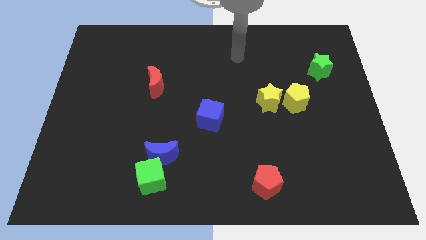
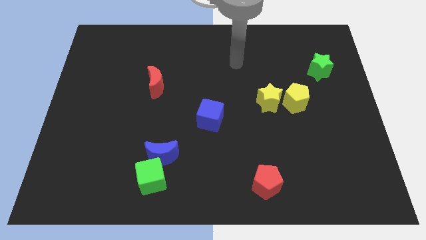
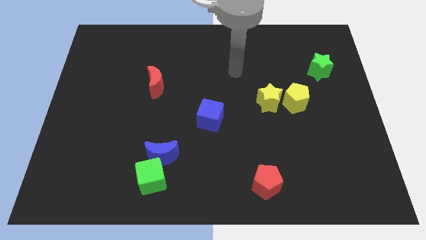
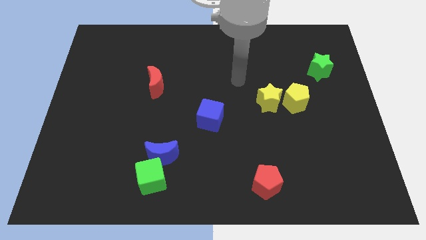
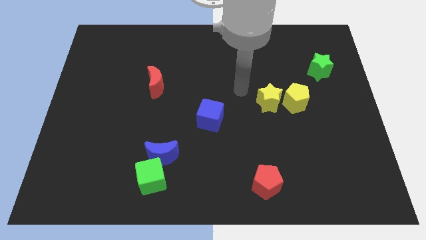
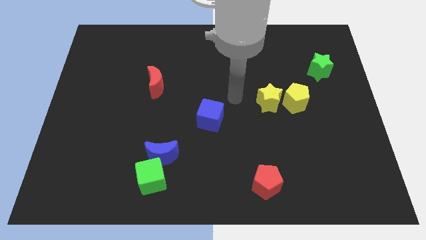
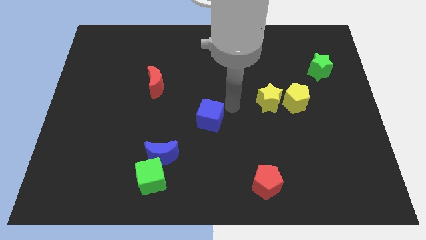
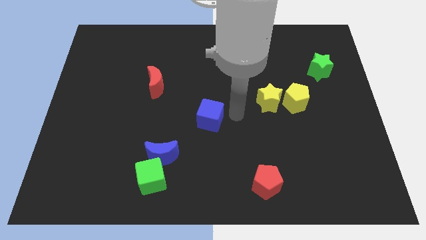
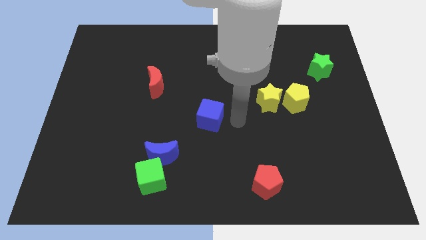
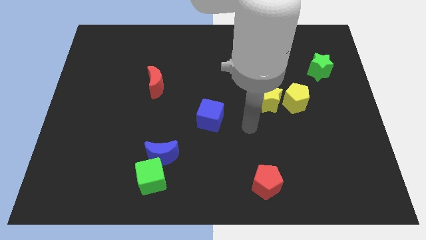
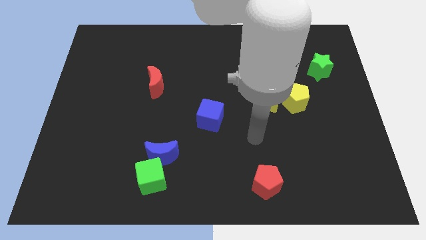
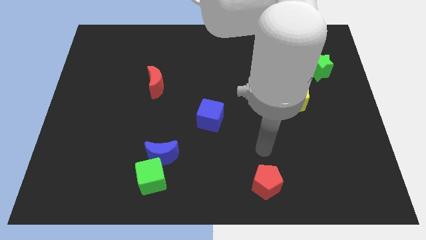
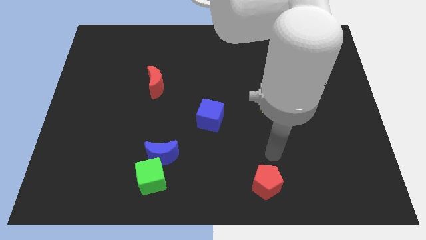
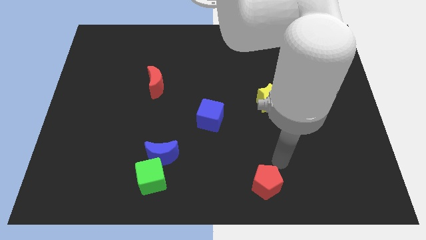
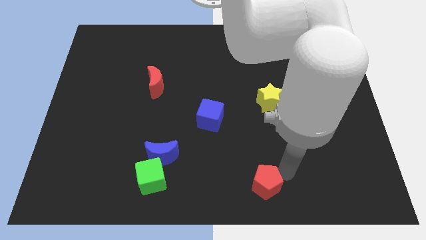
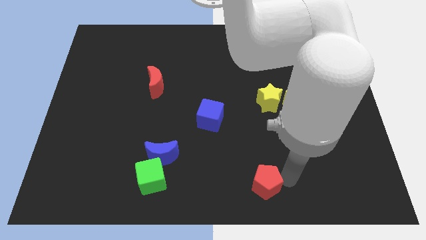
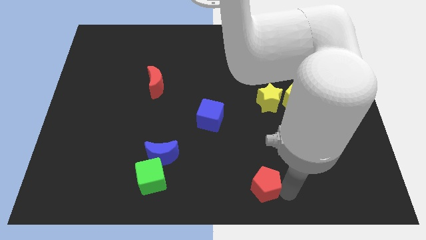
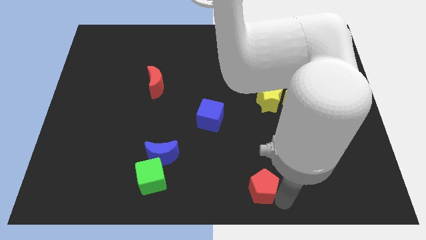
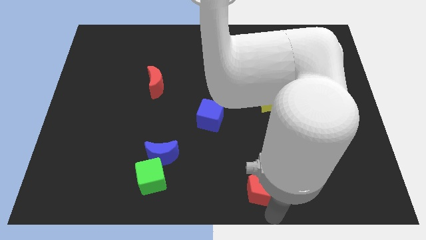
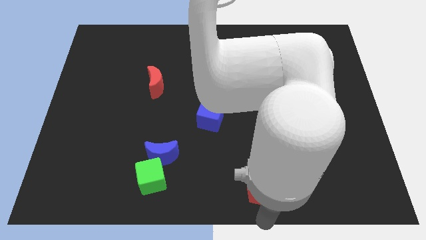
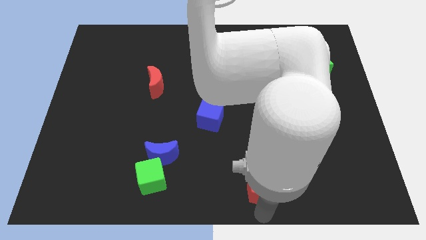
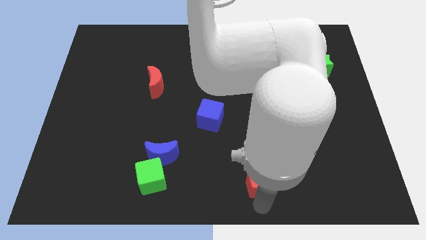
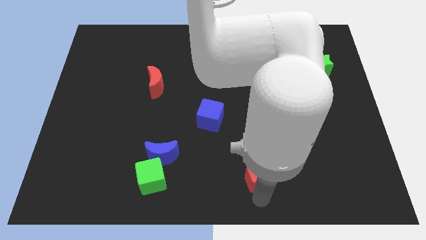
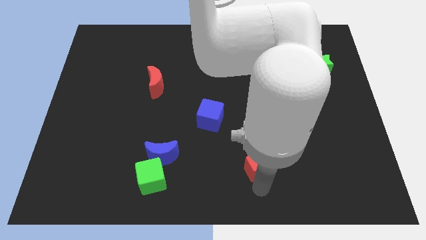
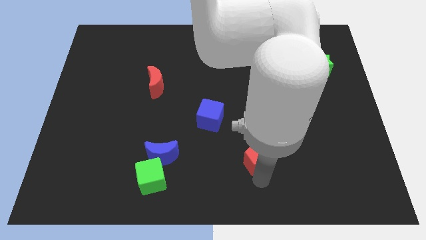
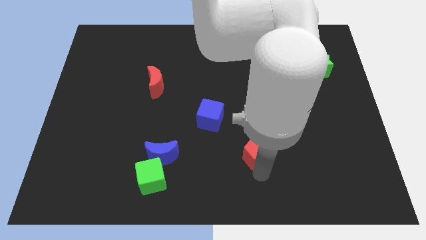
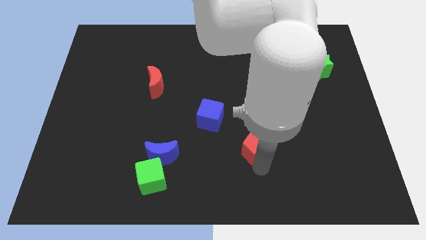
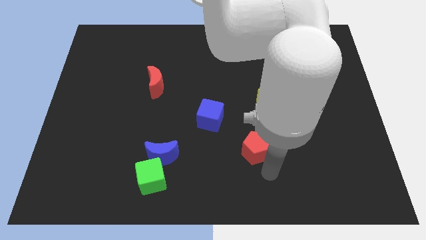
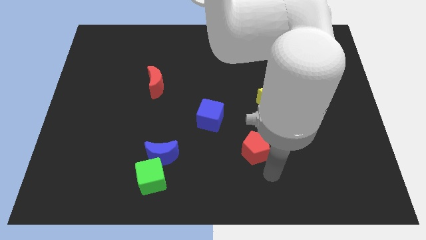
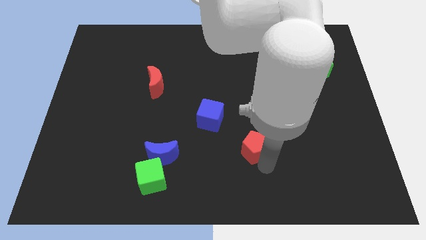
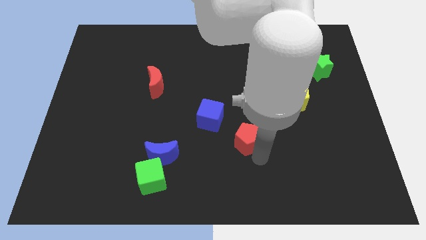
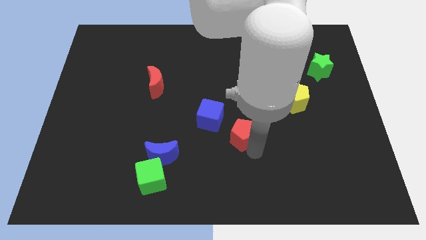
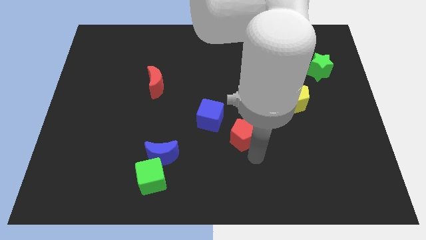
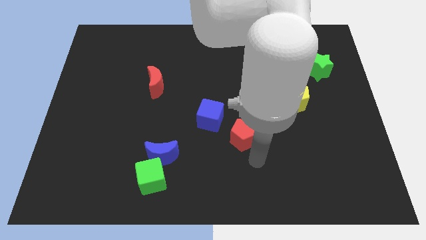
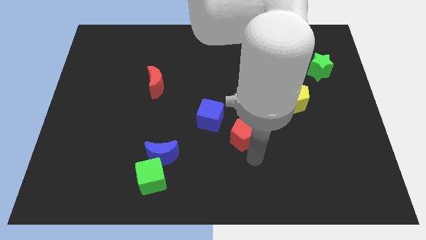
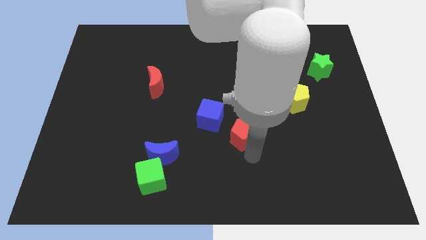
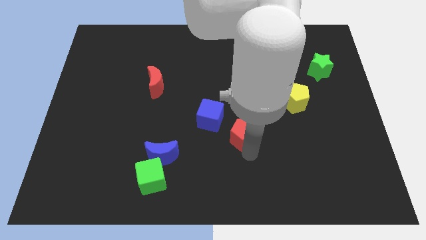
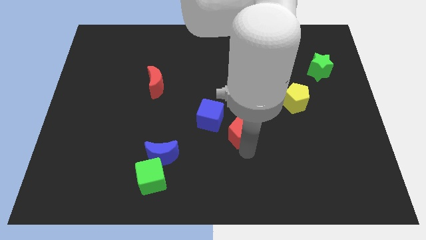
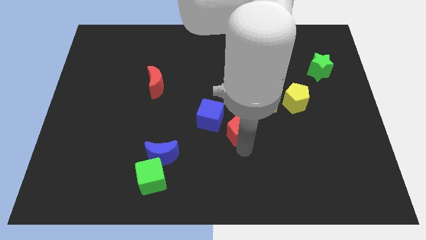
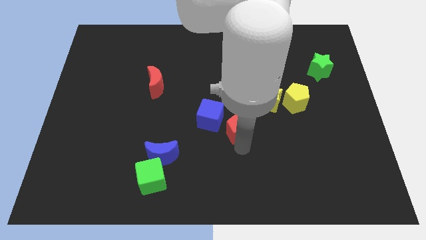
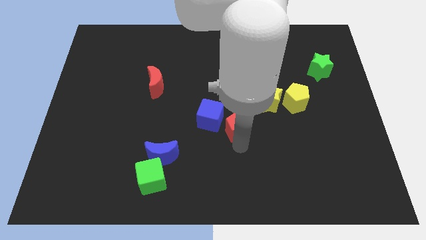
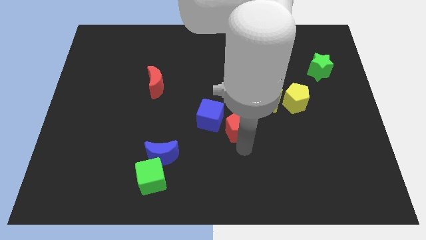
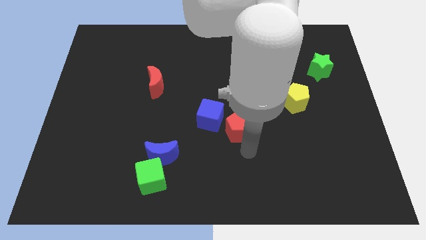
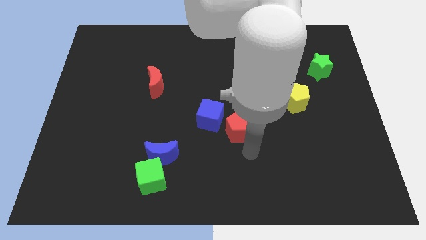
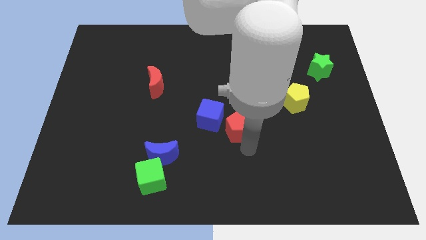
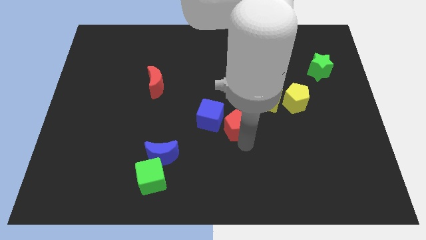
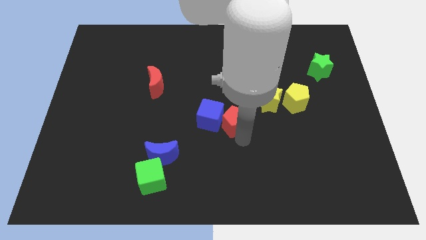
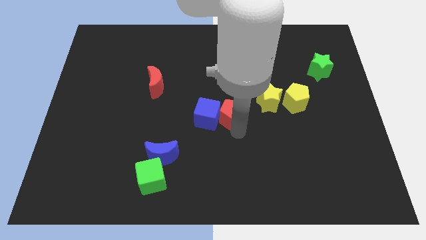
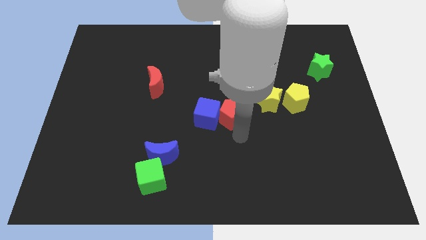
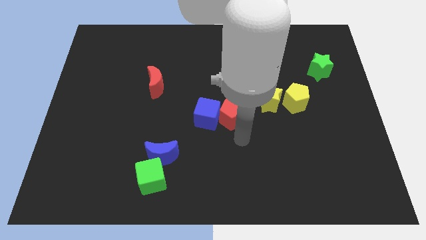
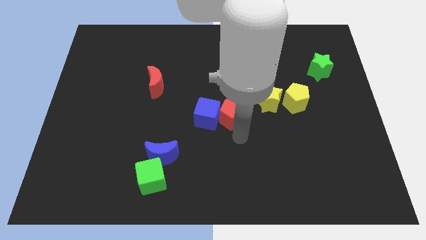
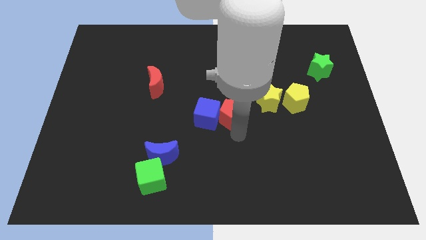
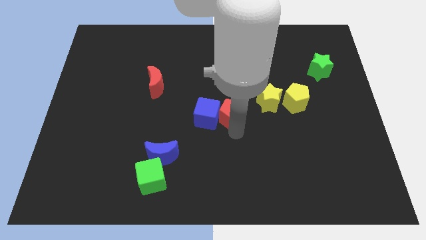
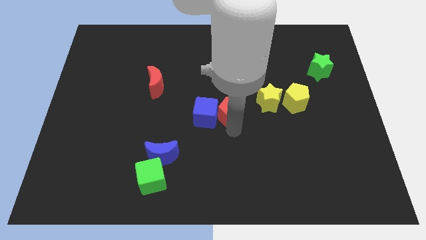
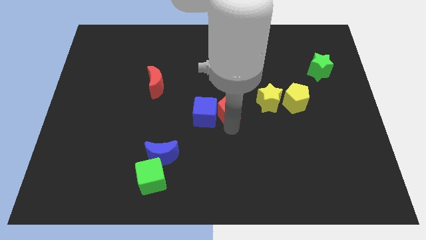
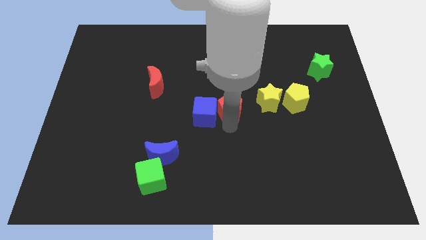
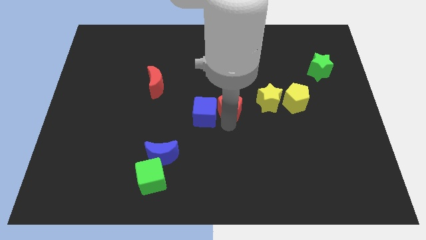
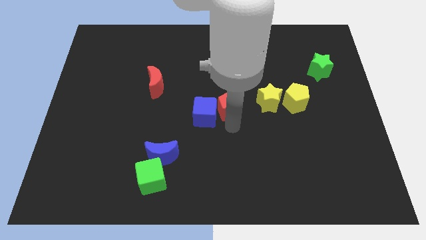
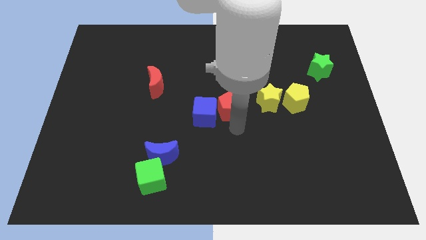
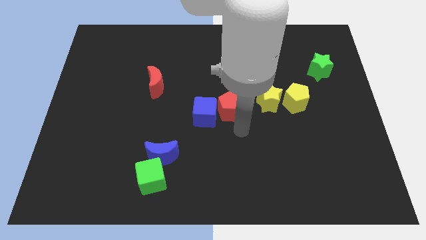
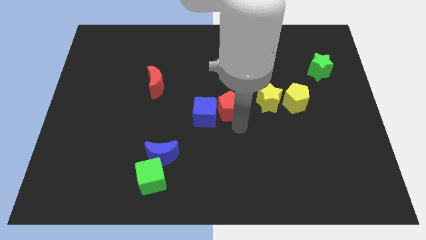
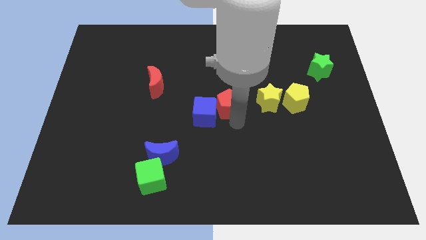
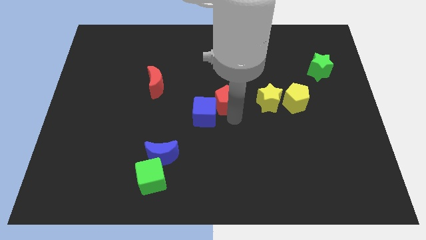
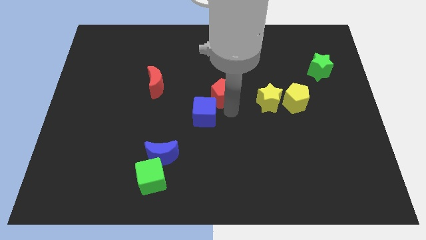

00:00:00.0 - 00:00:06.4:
slide the red pentagon above the blue cube
